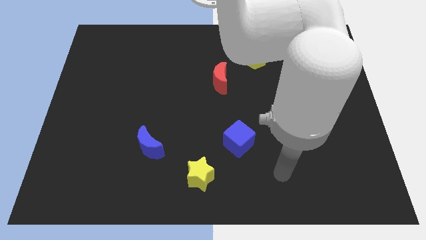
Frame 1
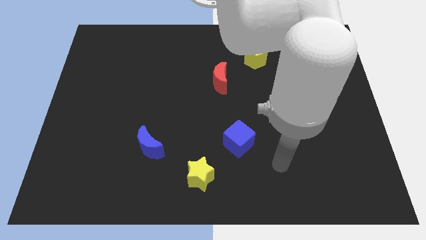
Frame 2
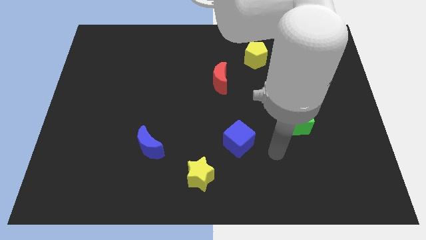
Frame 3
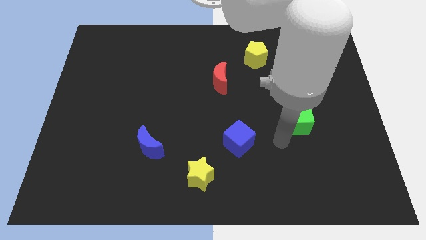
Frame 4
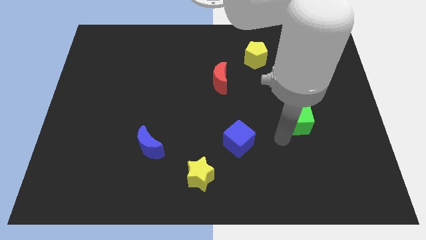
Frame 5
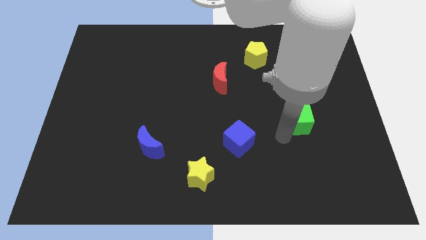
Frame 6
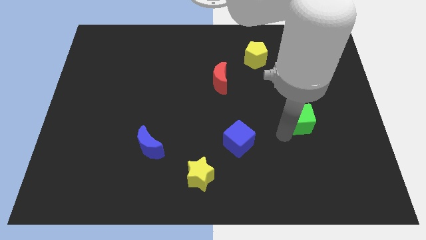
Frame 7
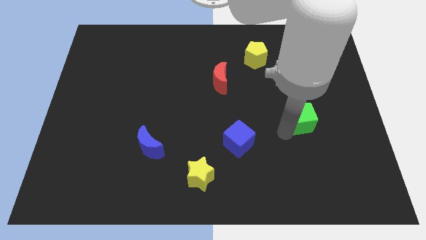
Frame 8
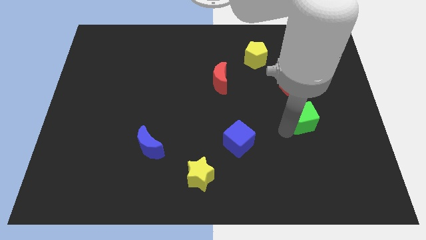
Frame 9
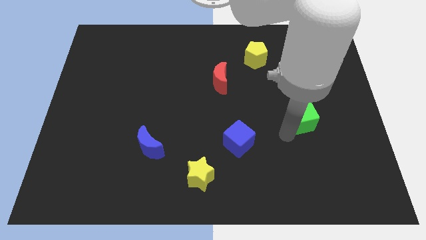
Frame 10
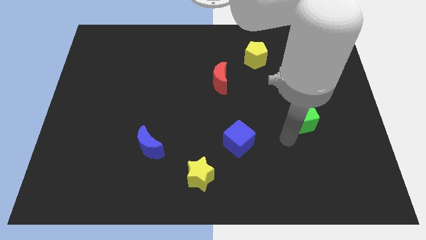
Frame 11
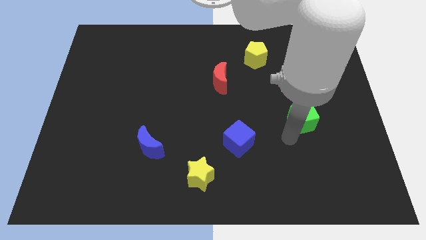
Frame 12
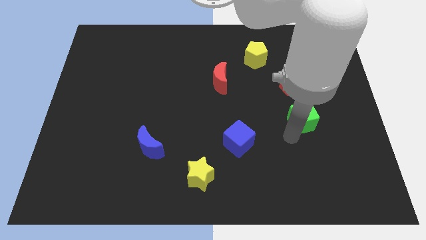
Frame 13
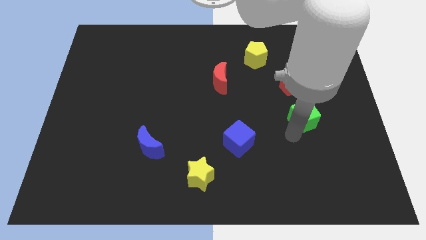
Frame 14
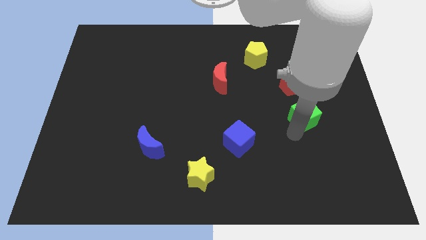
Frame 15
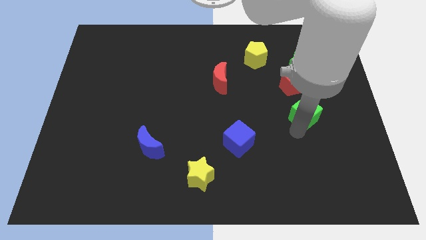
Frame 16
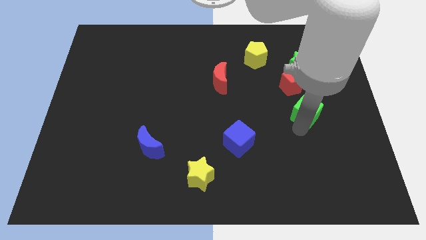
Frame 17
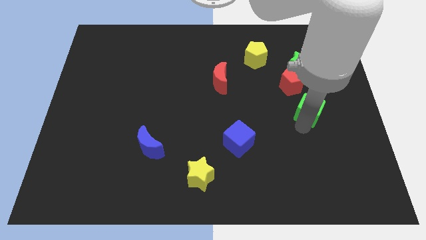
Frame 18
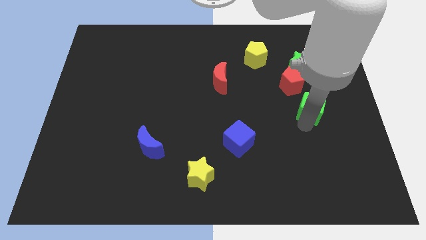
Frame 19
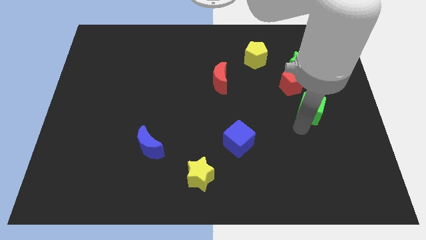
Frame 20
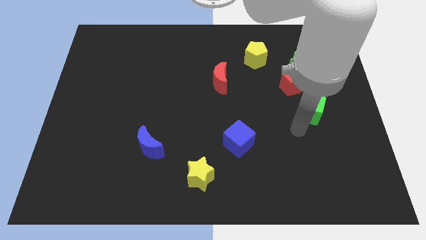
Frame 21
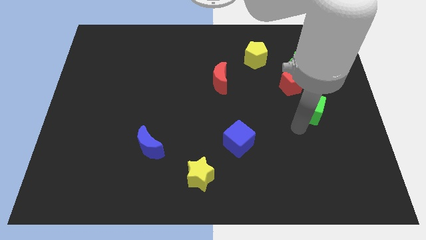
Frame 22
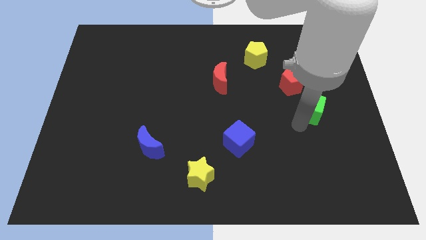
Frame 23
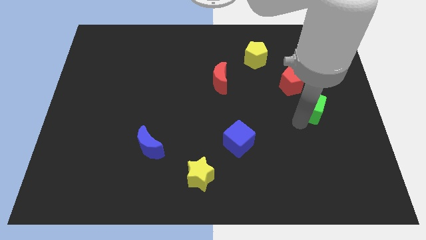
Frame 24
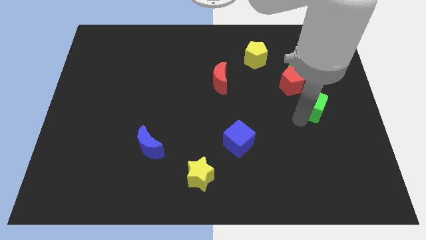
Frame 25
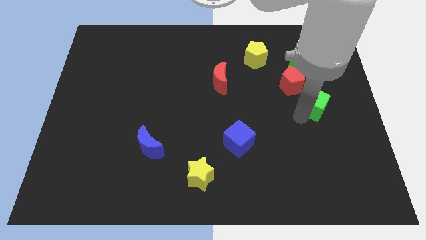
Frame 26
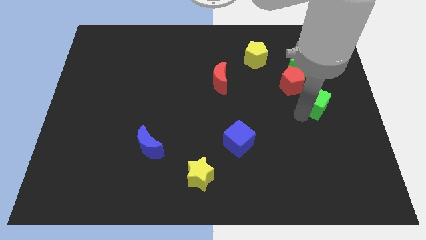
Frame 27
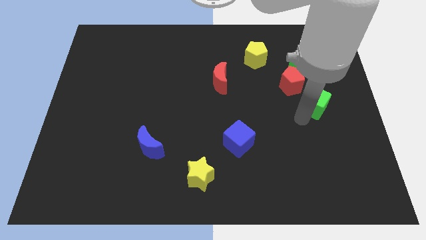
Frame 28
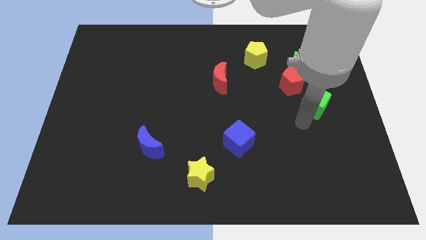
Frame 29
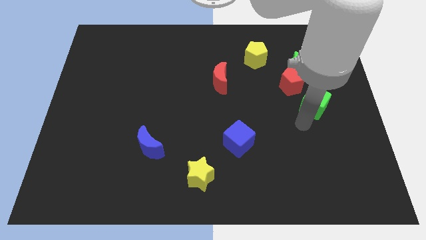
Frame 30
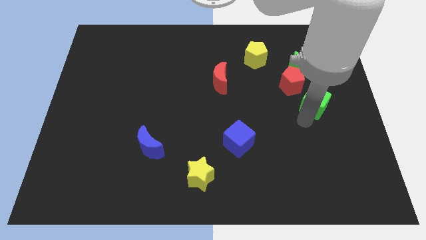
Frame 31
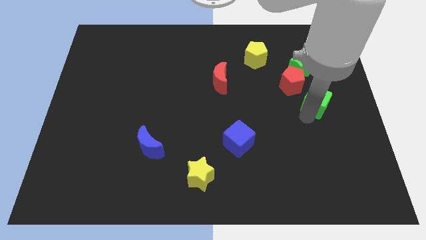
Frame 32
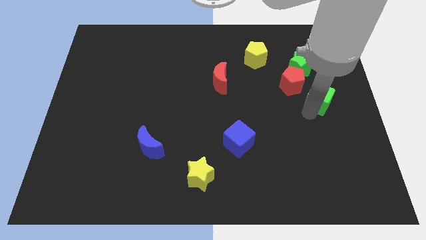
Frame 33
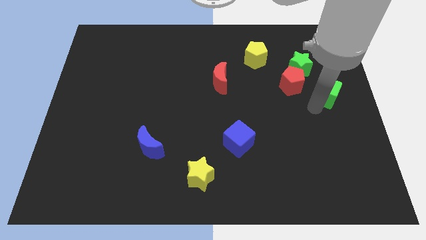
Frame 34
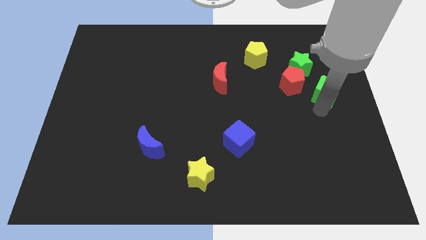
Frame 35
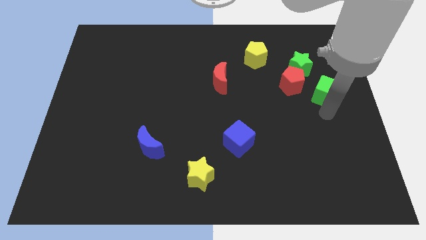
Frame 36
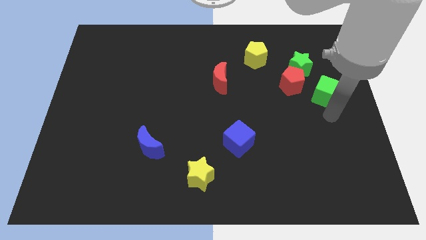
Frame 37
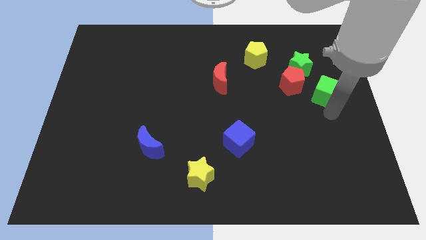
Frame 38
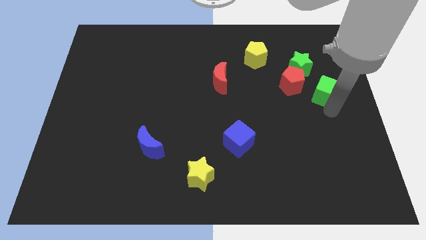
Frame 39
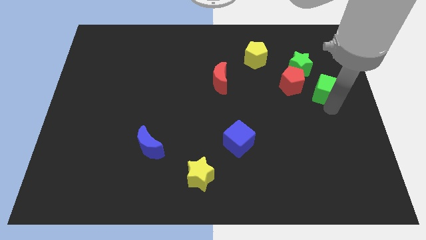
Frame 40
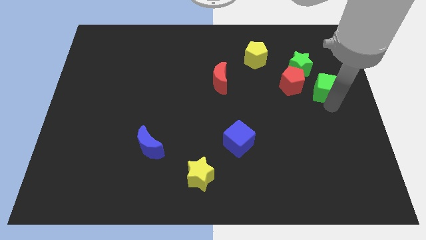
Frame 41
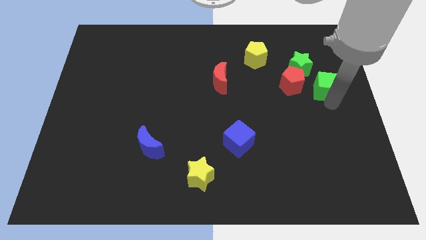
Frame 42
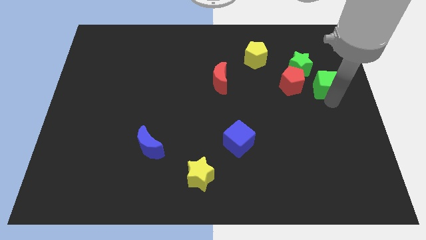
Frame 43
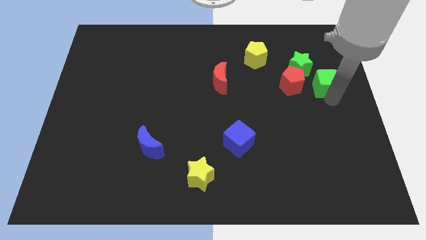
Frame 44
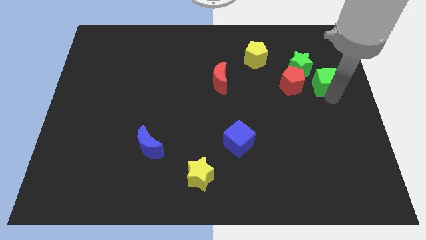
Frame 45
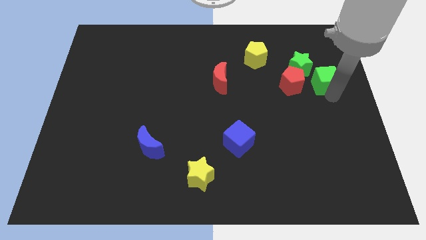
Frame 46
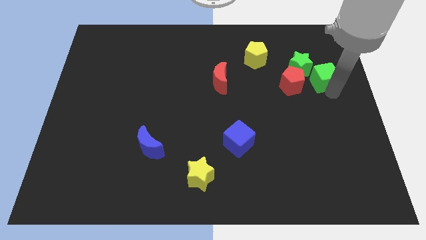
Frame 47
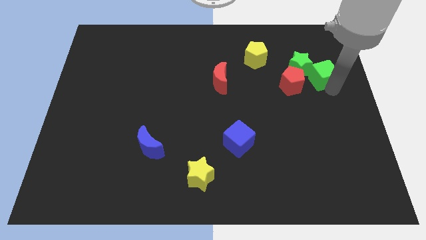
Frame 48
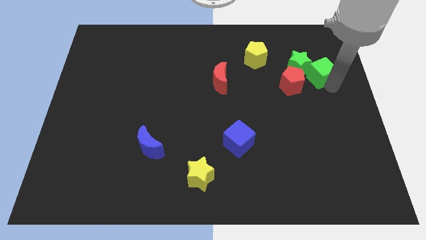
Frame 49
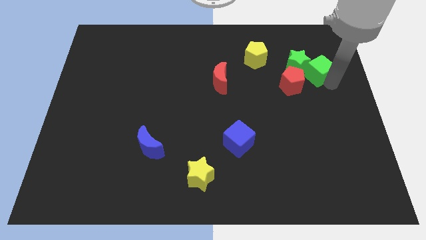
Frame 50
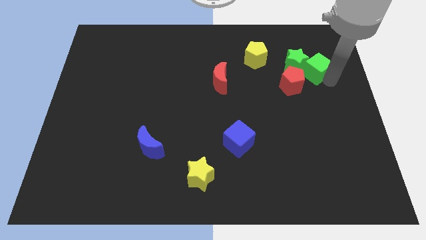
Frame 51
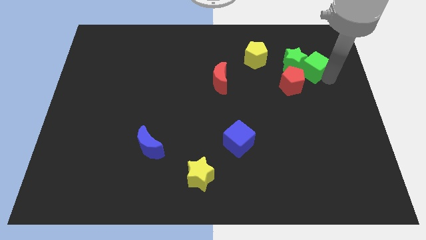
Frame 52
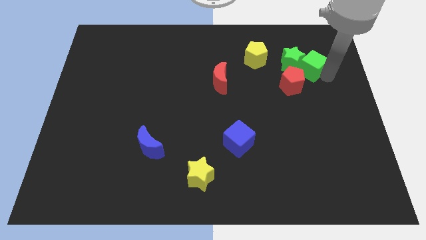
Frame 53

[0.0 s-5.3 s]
slide the green cube to the right of the yellow pentagon

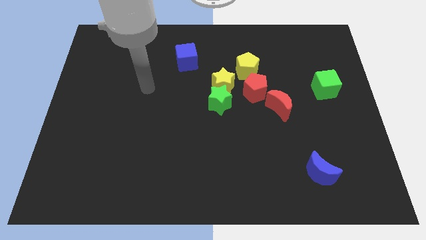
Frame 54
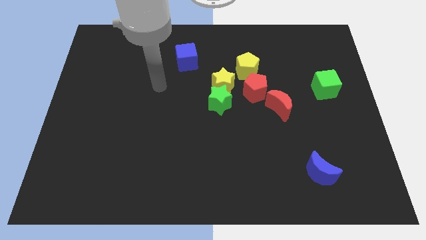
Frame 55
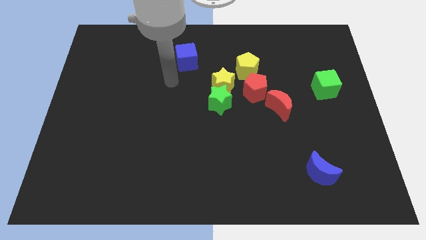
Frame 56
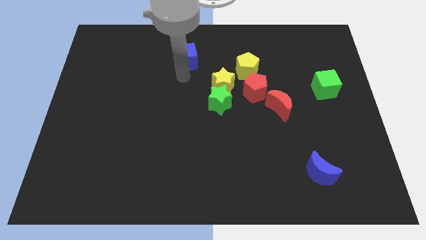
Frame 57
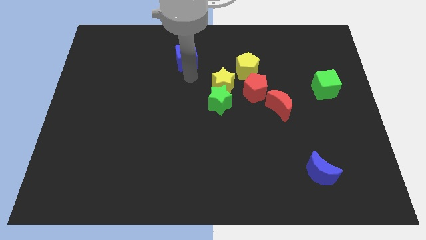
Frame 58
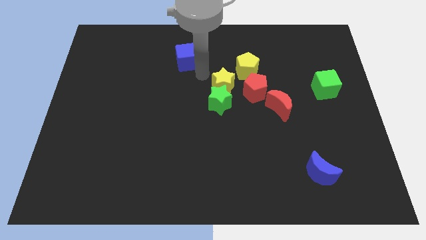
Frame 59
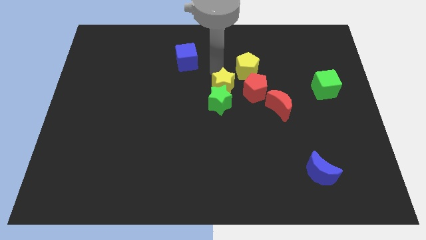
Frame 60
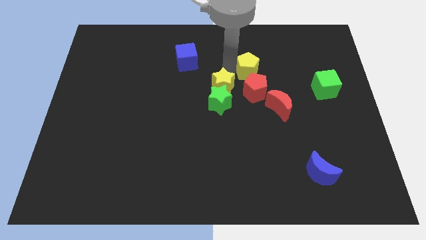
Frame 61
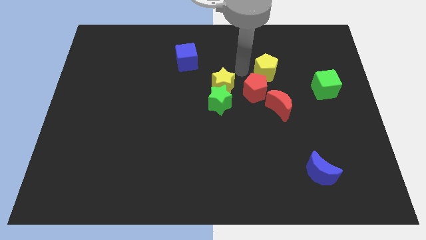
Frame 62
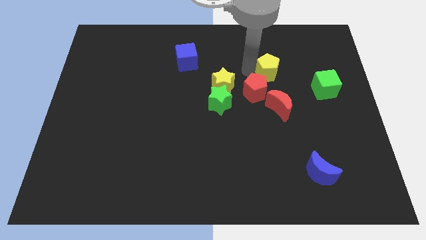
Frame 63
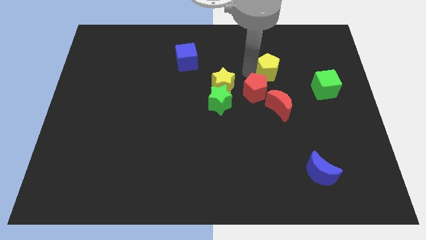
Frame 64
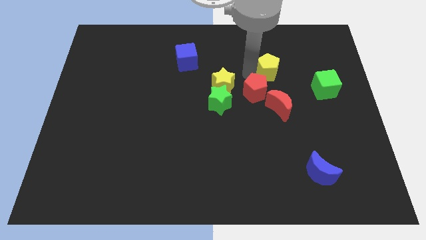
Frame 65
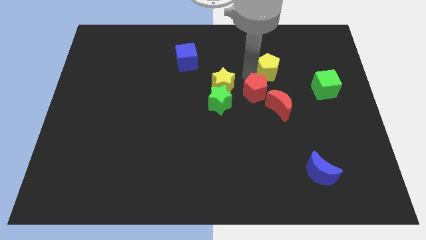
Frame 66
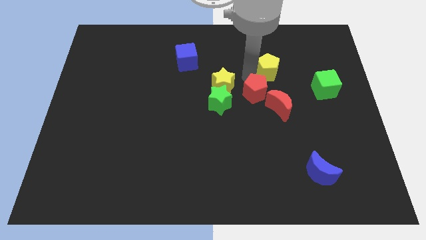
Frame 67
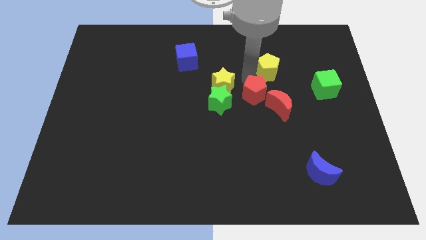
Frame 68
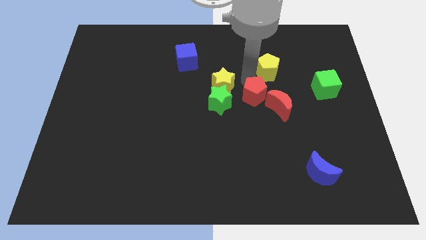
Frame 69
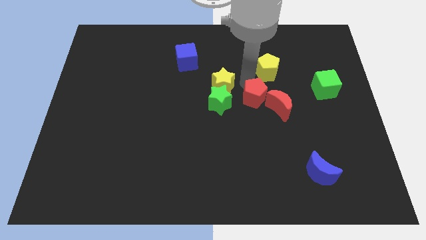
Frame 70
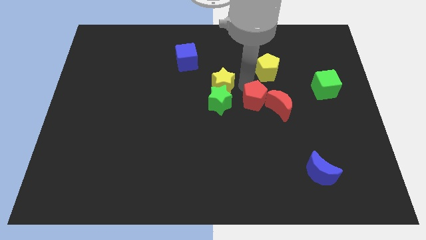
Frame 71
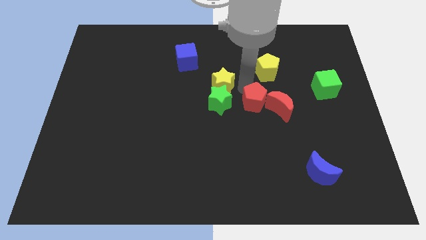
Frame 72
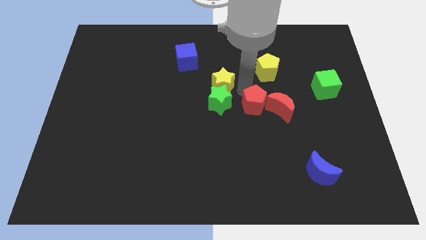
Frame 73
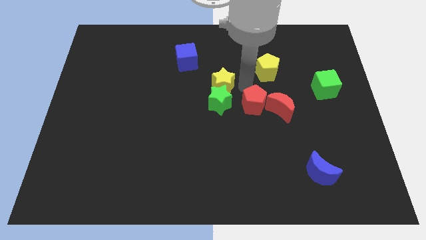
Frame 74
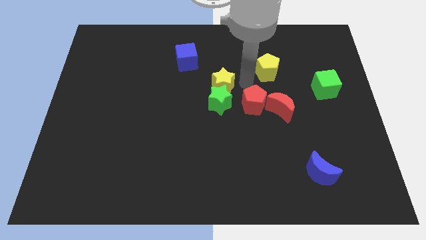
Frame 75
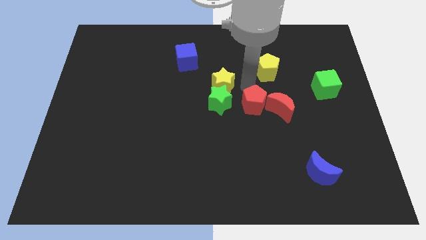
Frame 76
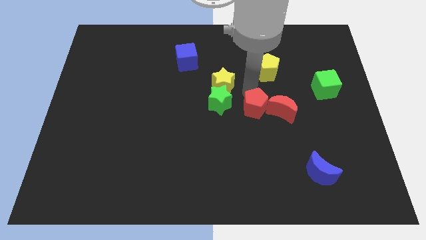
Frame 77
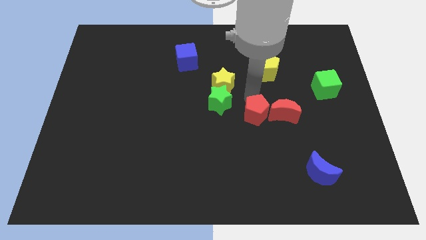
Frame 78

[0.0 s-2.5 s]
slide the red pentagon to the bottom left side of the red moon
